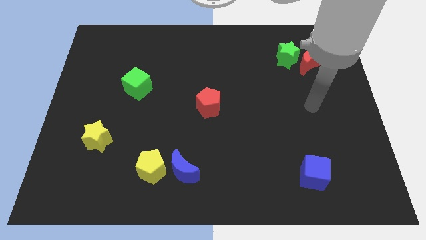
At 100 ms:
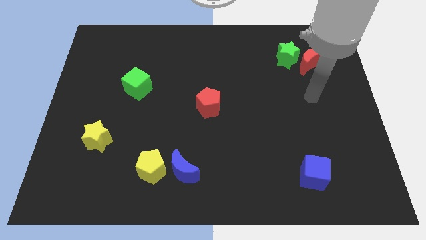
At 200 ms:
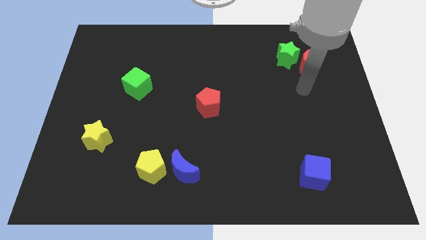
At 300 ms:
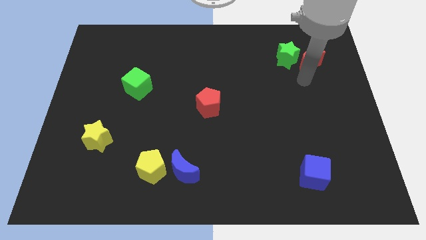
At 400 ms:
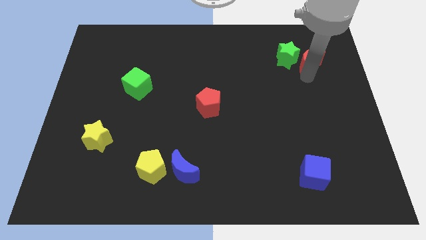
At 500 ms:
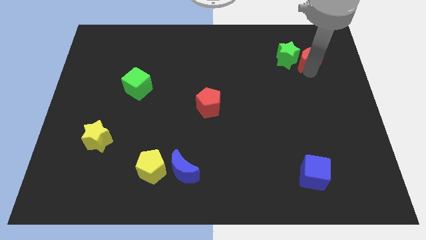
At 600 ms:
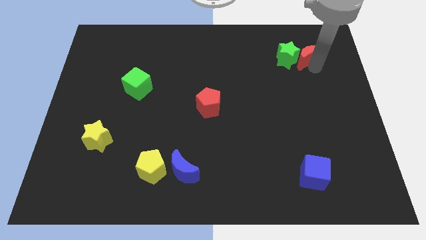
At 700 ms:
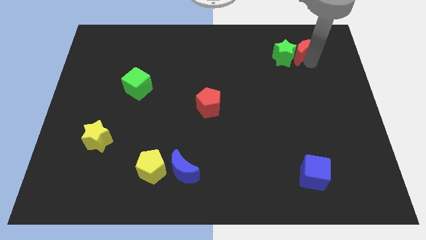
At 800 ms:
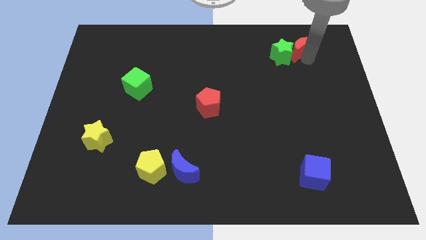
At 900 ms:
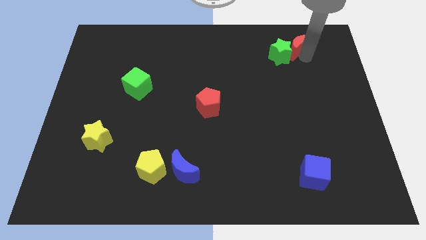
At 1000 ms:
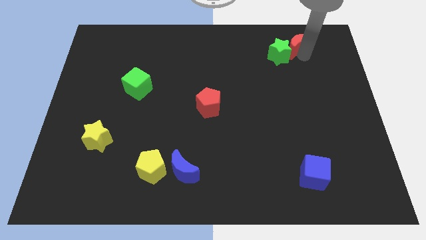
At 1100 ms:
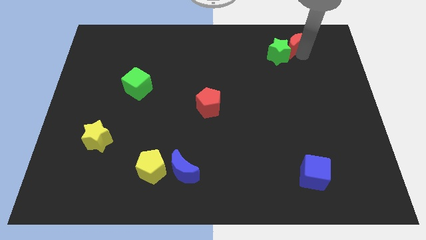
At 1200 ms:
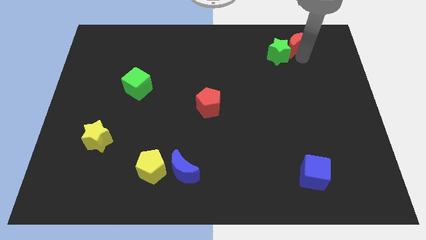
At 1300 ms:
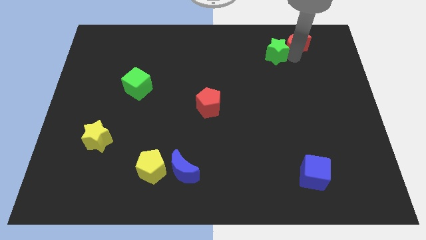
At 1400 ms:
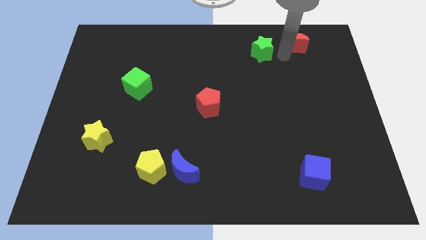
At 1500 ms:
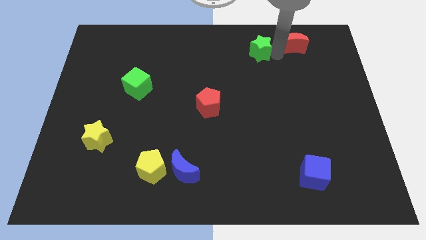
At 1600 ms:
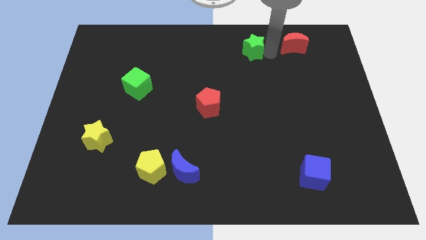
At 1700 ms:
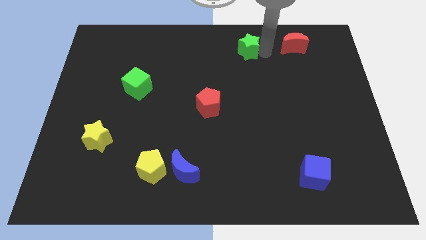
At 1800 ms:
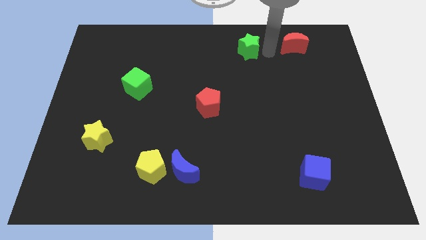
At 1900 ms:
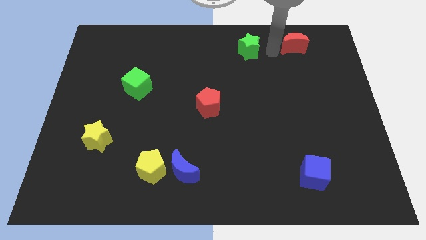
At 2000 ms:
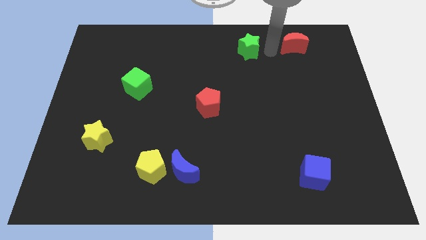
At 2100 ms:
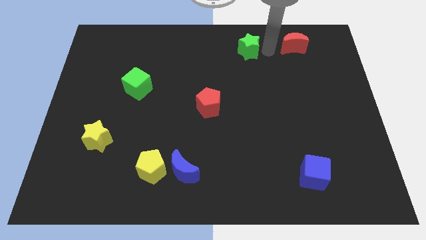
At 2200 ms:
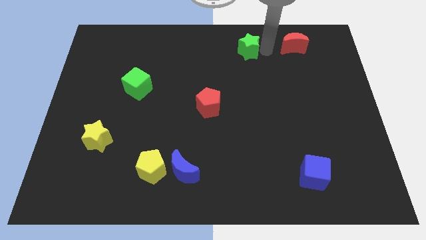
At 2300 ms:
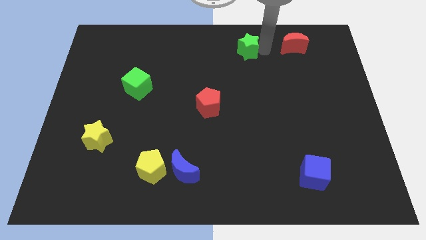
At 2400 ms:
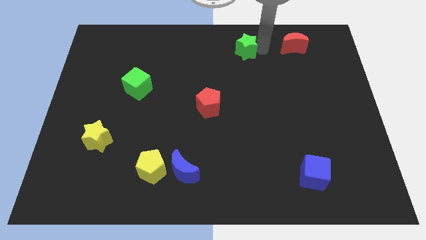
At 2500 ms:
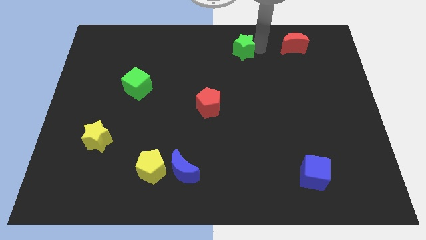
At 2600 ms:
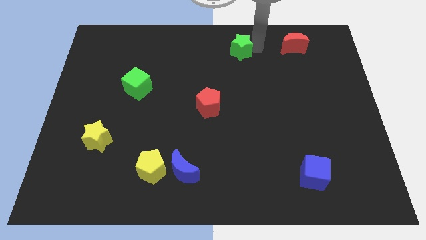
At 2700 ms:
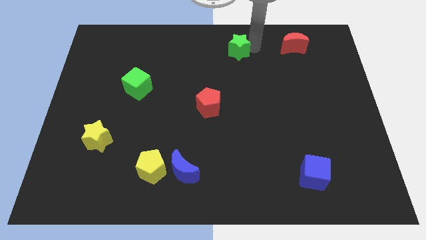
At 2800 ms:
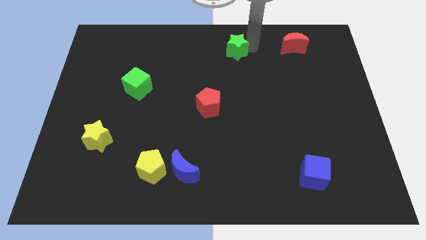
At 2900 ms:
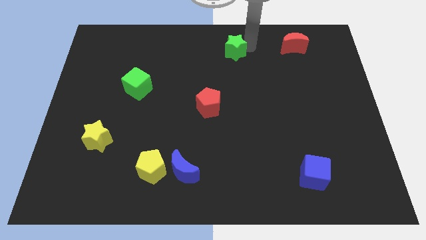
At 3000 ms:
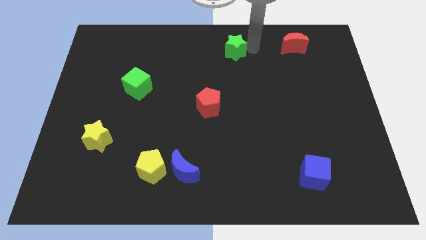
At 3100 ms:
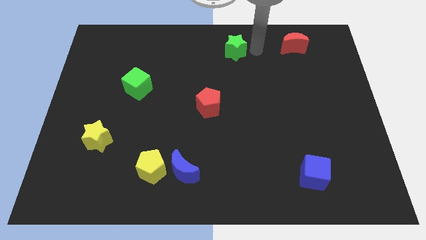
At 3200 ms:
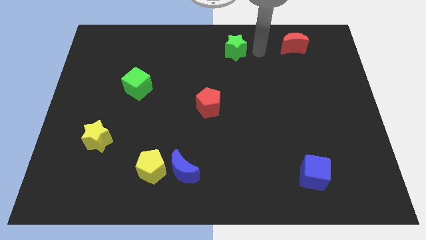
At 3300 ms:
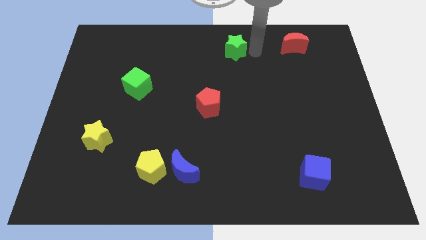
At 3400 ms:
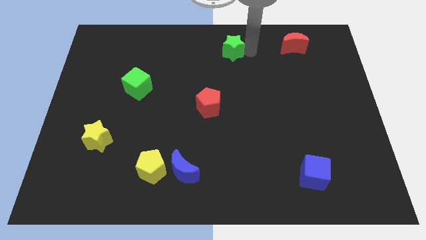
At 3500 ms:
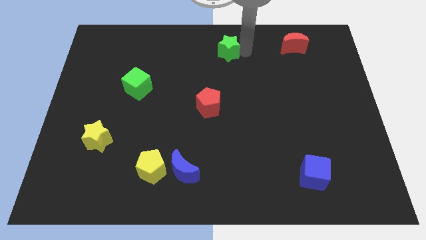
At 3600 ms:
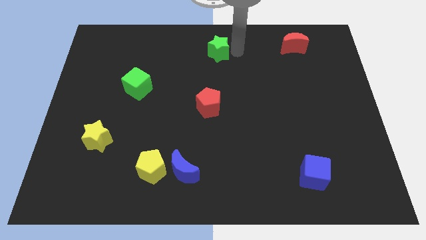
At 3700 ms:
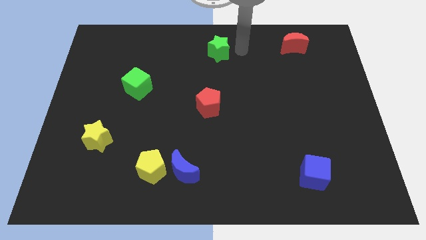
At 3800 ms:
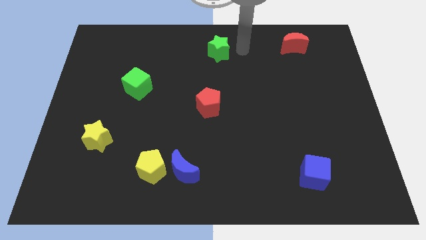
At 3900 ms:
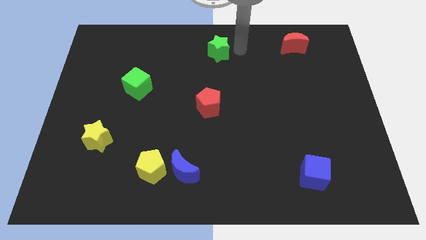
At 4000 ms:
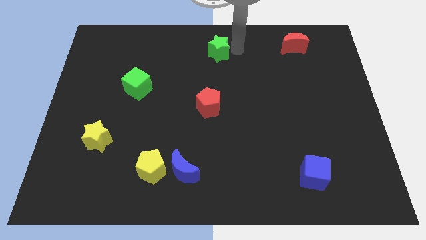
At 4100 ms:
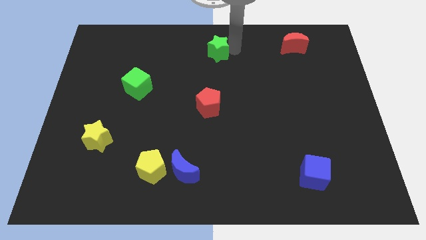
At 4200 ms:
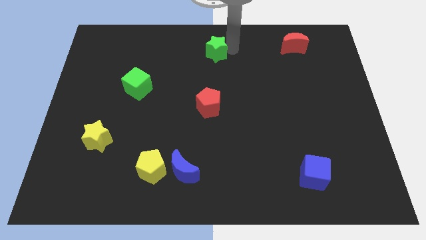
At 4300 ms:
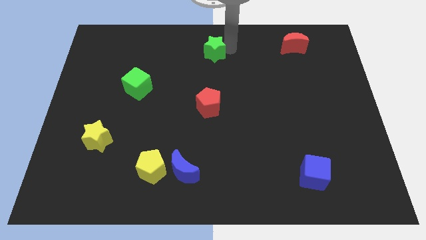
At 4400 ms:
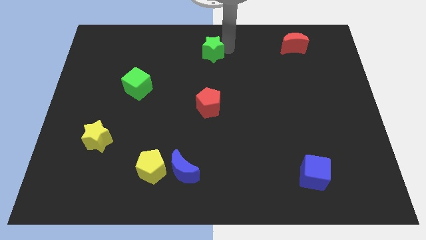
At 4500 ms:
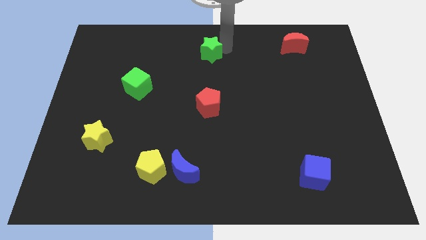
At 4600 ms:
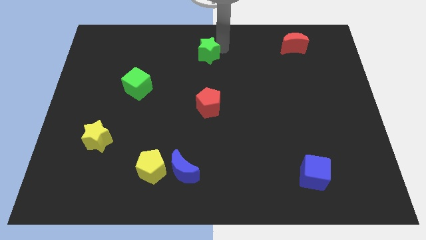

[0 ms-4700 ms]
push the green star left

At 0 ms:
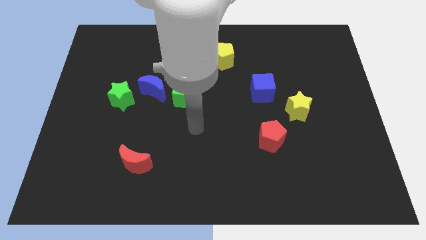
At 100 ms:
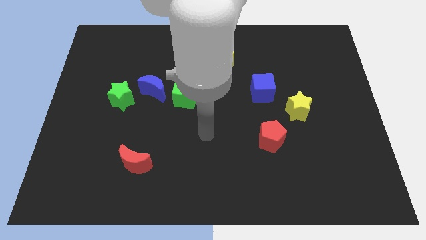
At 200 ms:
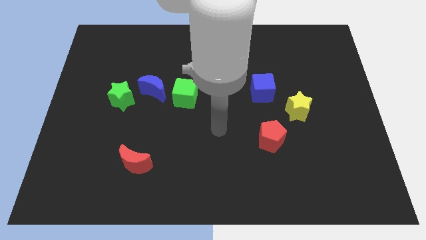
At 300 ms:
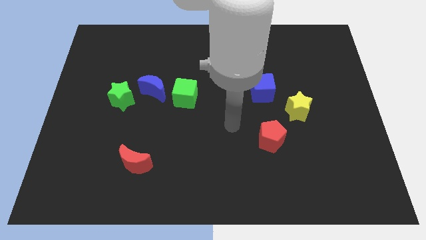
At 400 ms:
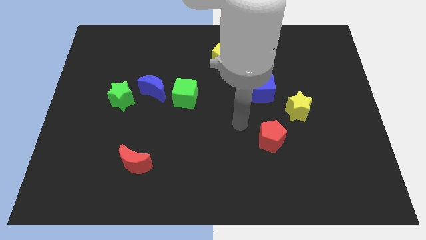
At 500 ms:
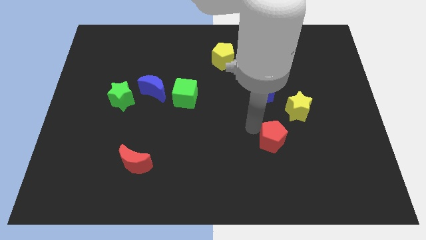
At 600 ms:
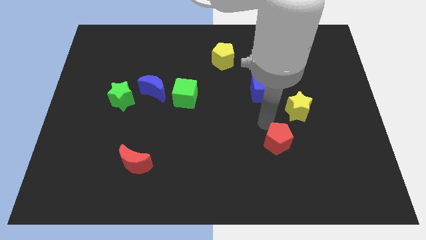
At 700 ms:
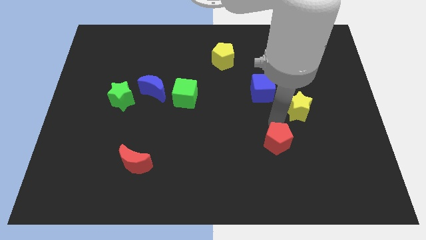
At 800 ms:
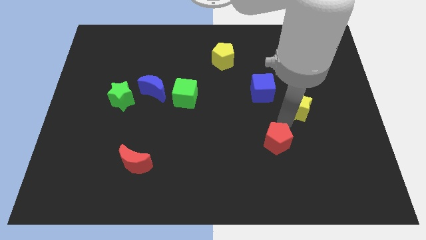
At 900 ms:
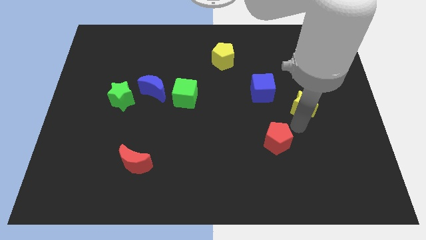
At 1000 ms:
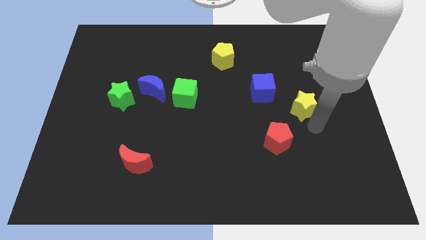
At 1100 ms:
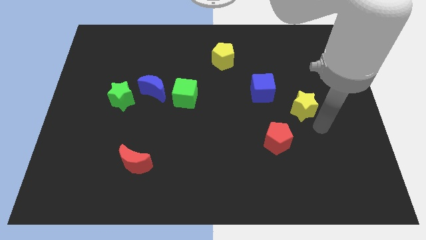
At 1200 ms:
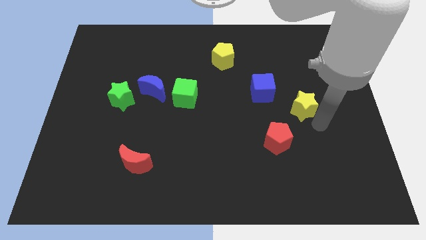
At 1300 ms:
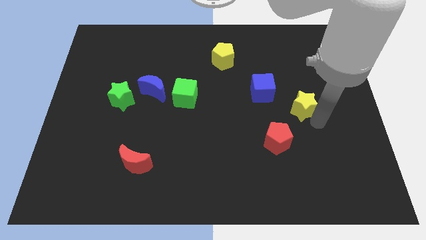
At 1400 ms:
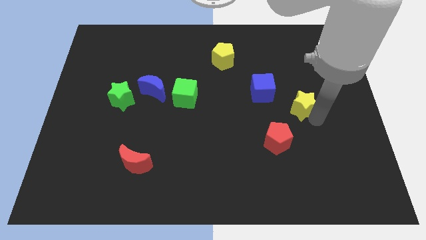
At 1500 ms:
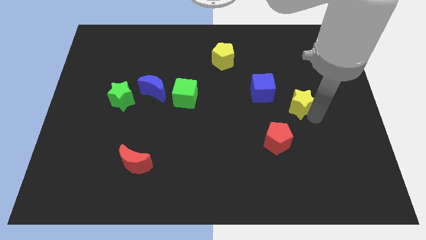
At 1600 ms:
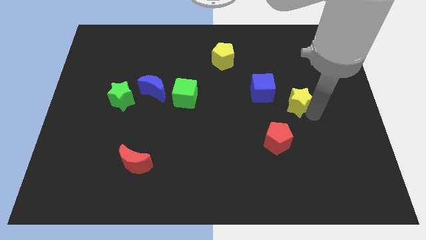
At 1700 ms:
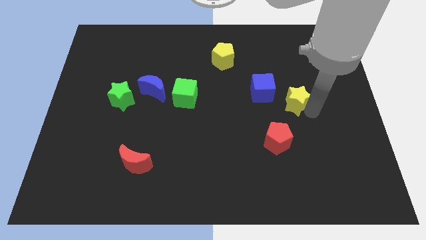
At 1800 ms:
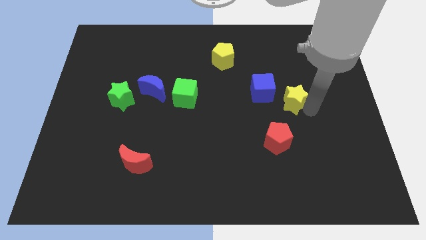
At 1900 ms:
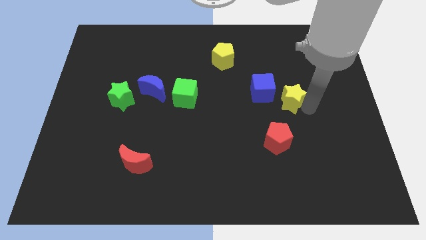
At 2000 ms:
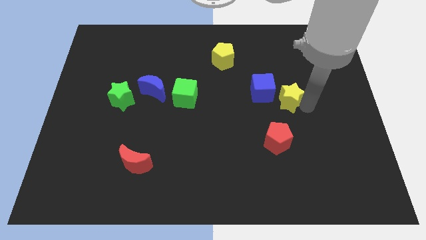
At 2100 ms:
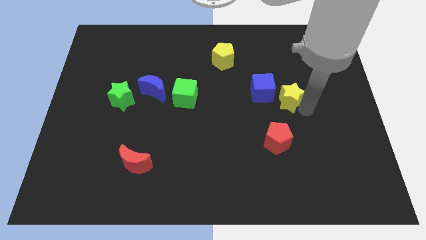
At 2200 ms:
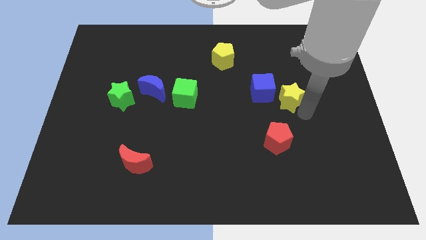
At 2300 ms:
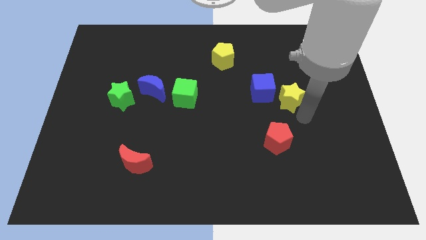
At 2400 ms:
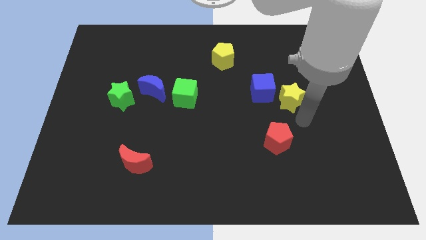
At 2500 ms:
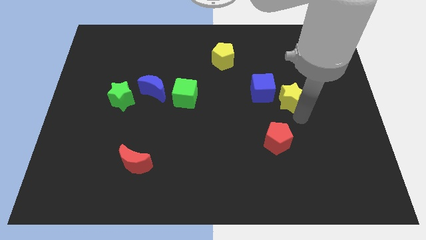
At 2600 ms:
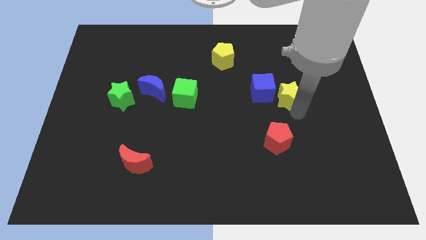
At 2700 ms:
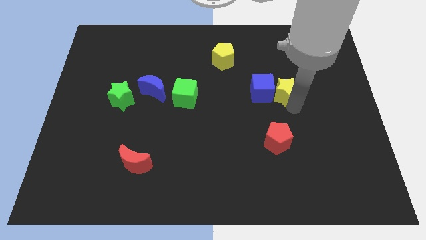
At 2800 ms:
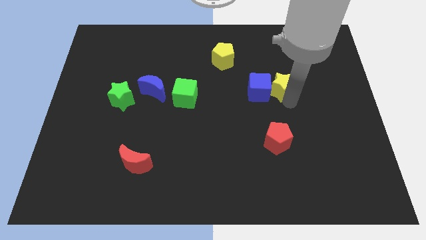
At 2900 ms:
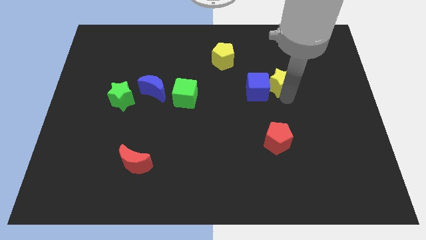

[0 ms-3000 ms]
slightly push the yellow star diagonally up and to the left

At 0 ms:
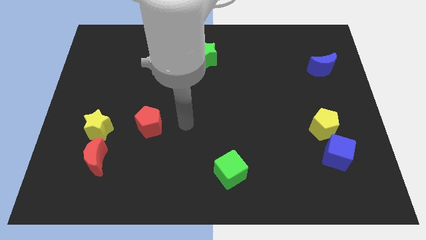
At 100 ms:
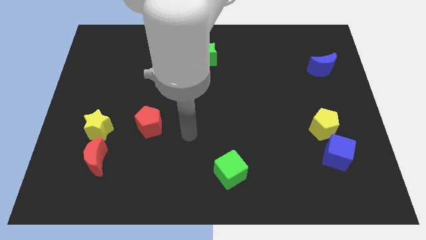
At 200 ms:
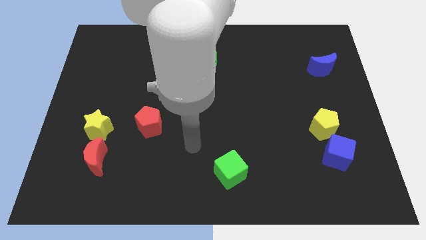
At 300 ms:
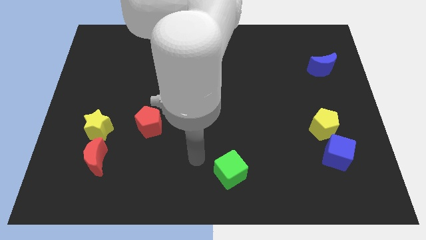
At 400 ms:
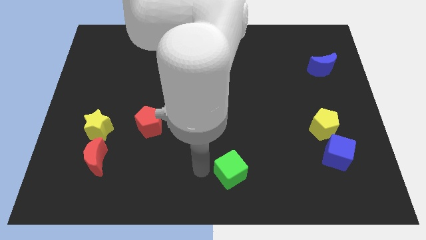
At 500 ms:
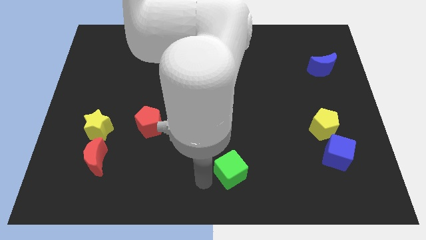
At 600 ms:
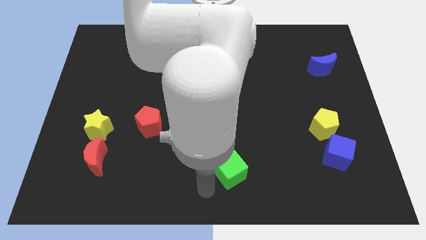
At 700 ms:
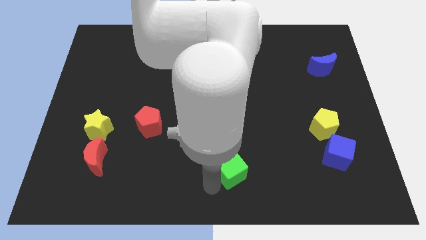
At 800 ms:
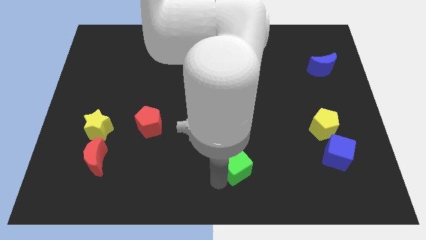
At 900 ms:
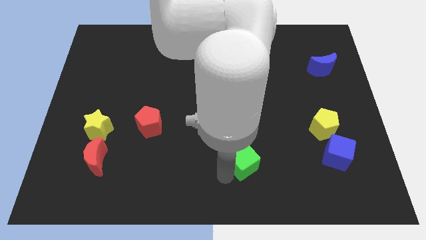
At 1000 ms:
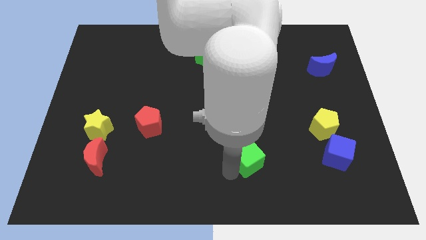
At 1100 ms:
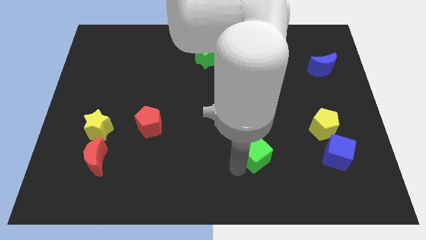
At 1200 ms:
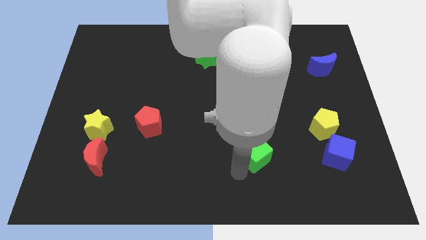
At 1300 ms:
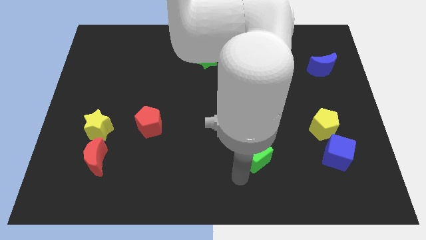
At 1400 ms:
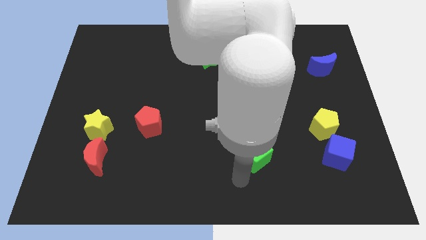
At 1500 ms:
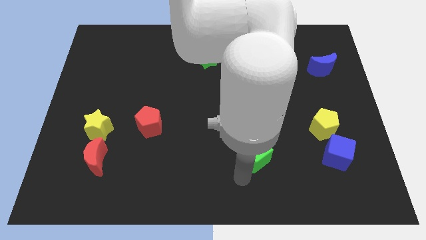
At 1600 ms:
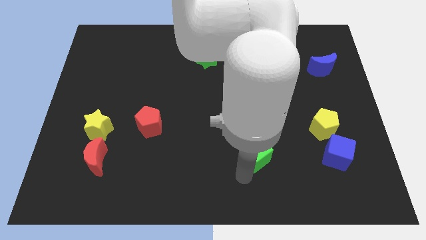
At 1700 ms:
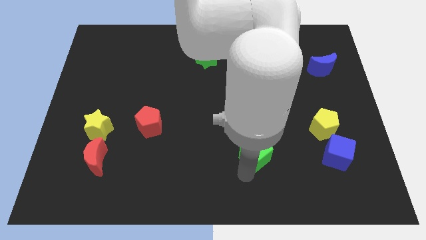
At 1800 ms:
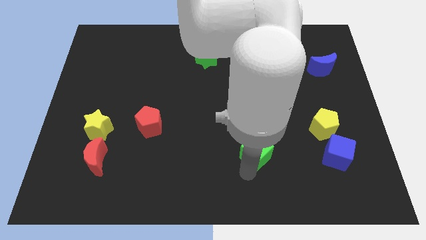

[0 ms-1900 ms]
slightly slide the green cube up and then to the right
